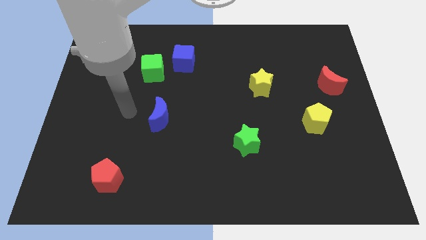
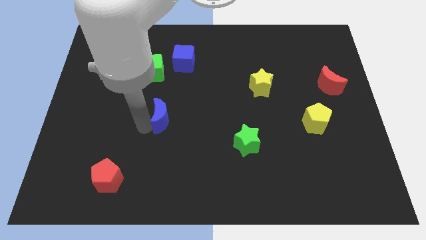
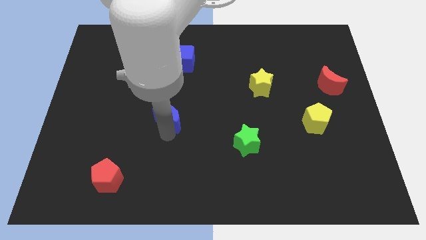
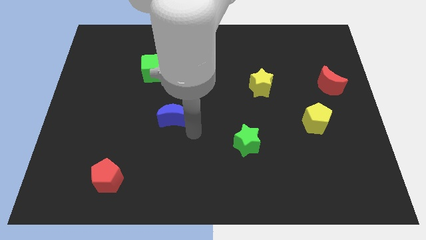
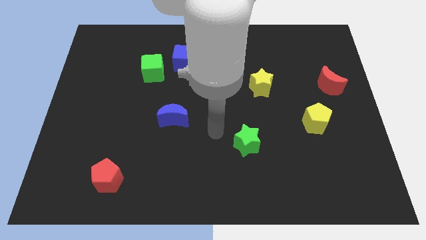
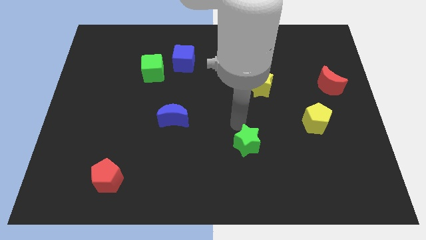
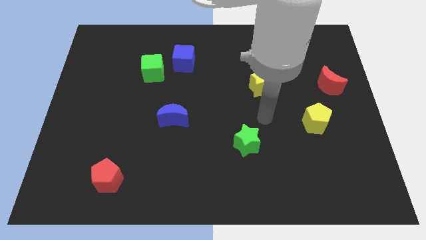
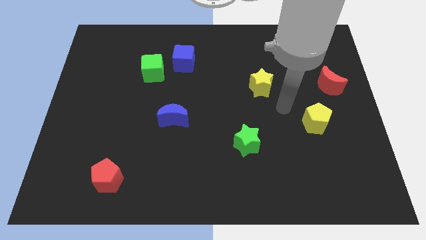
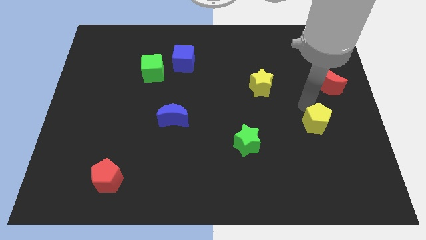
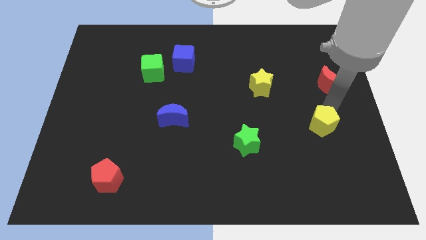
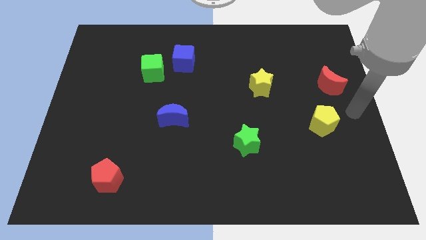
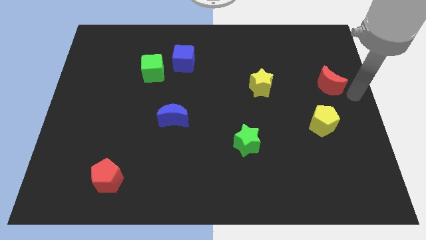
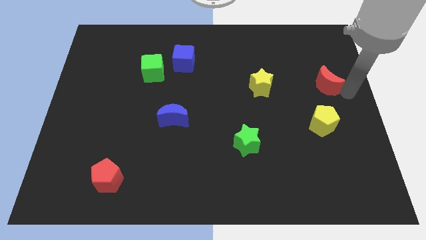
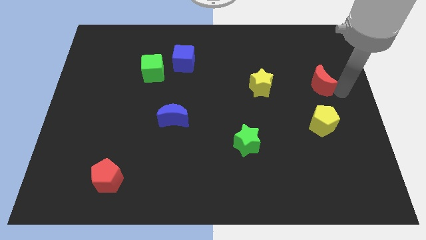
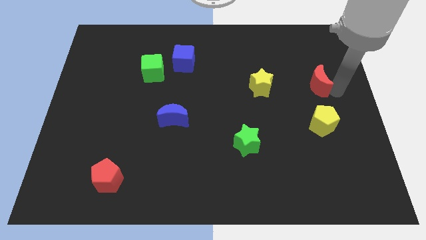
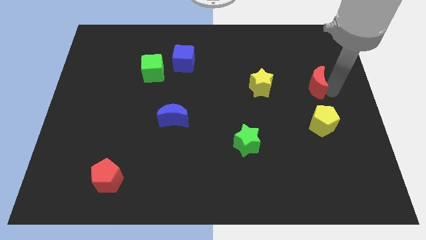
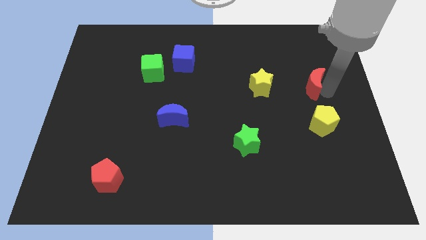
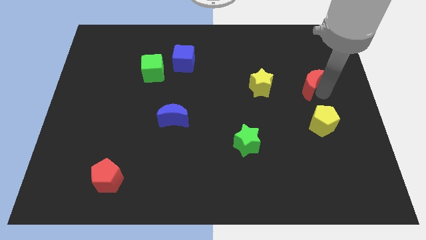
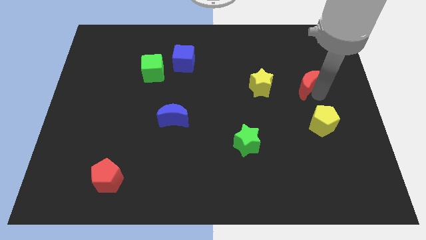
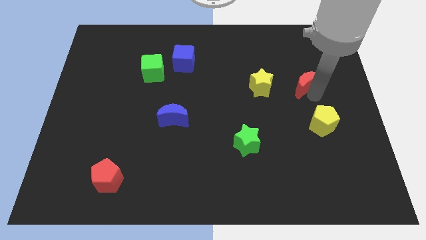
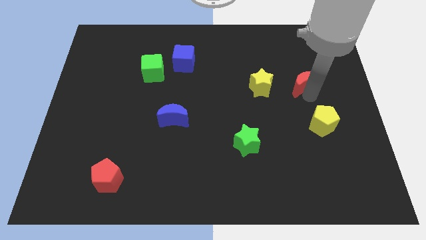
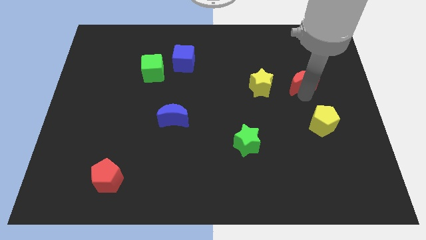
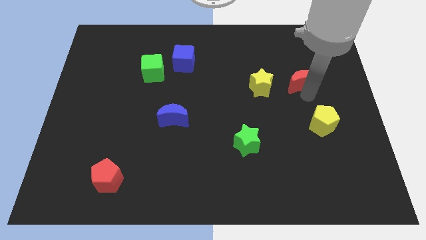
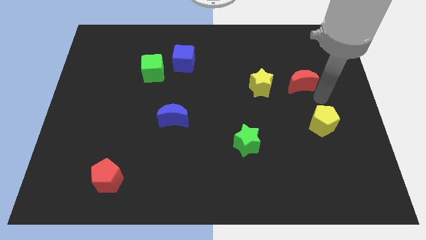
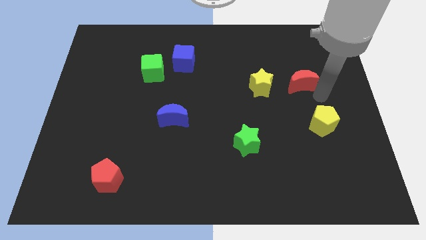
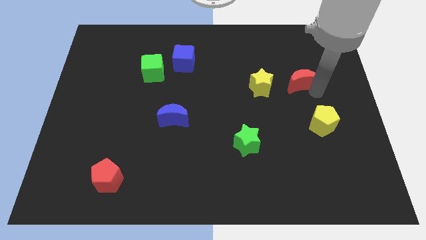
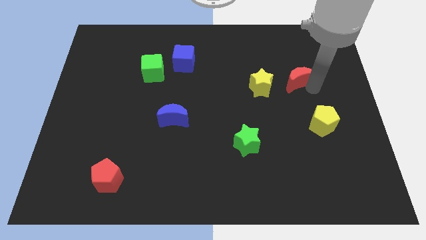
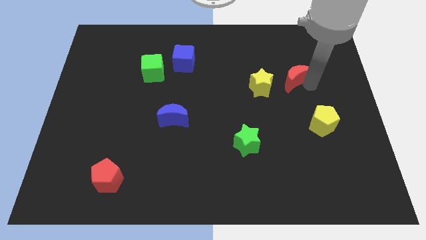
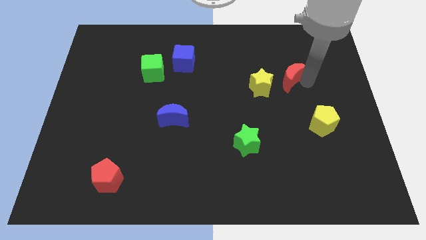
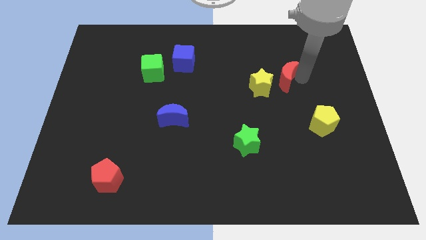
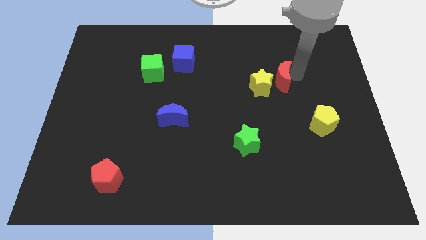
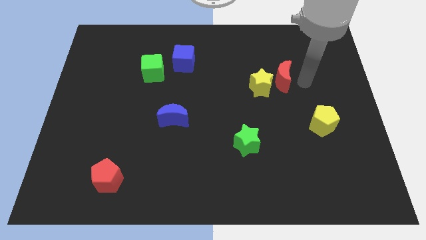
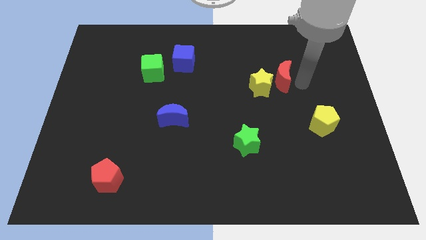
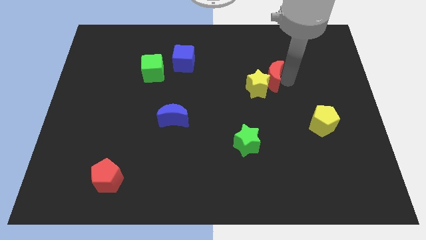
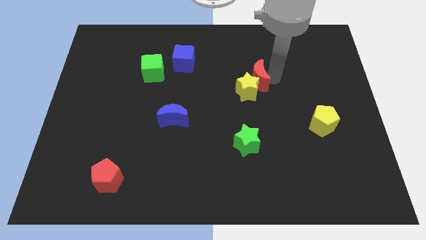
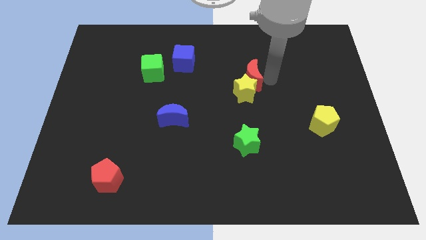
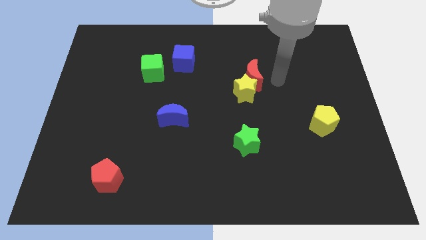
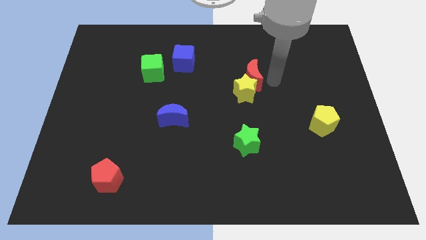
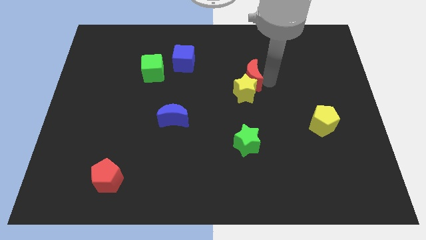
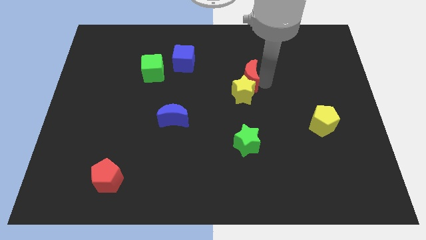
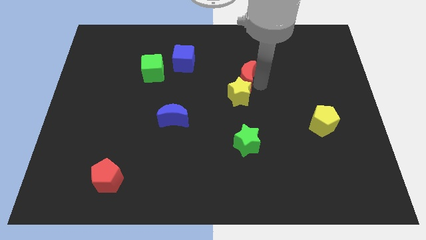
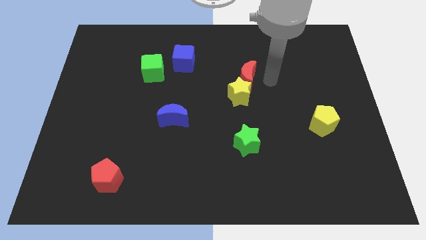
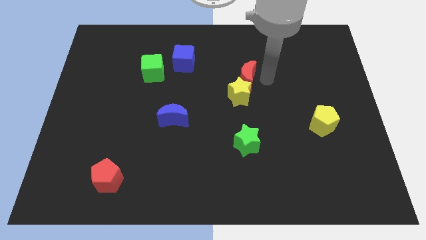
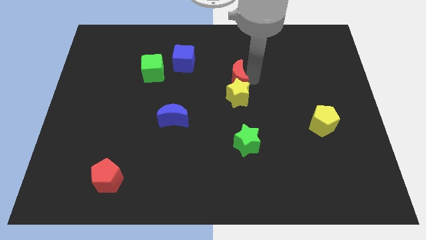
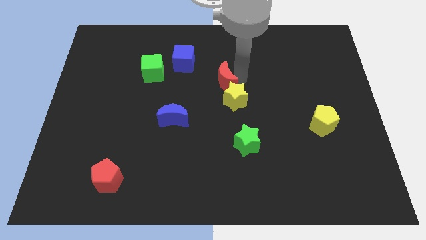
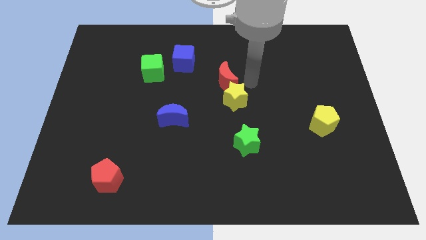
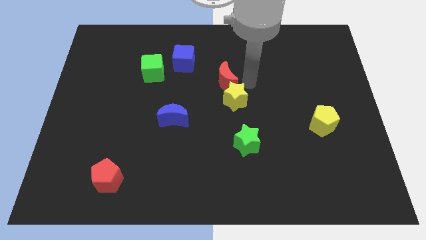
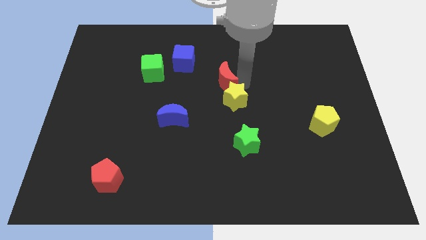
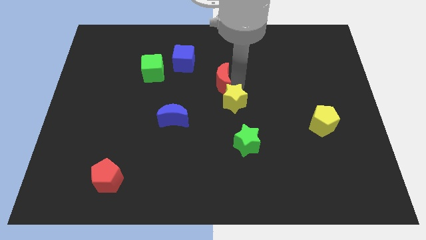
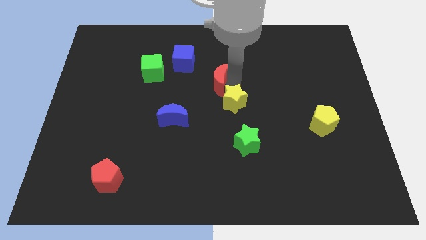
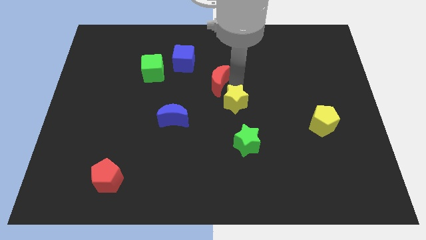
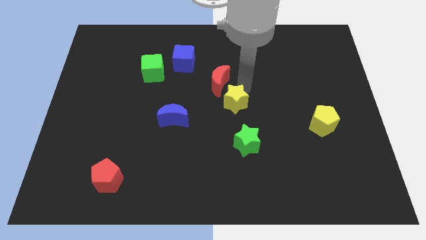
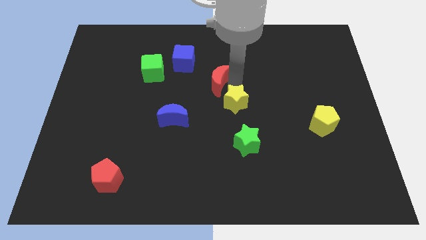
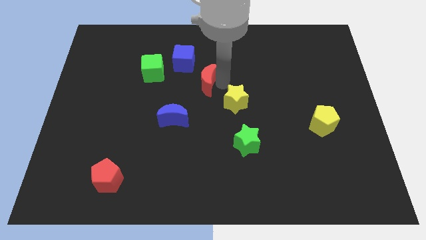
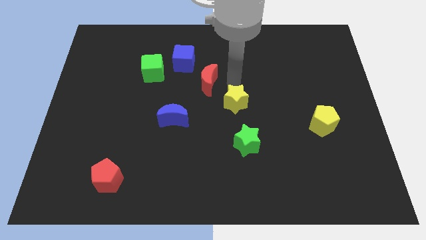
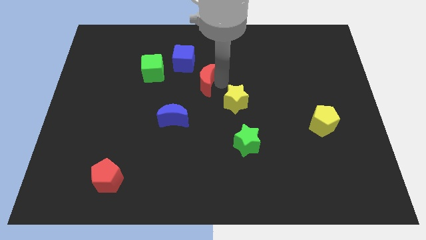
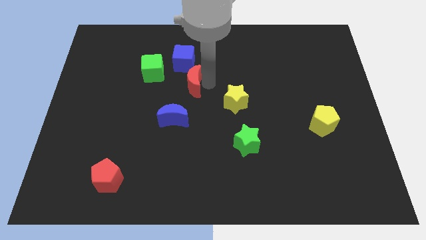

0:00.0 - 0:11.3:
put the red moon to the top of the blue moon
